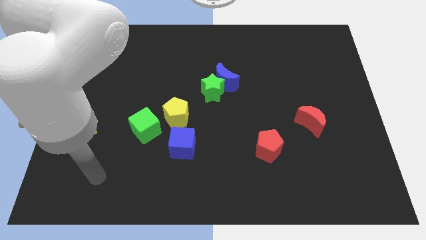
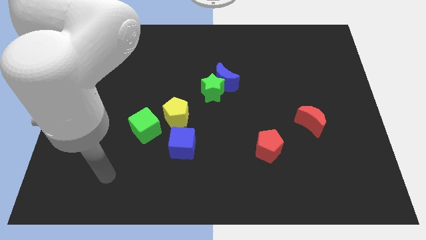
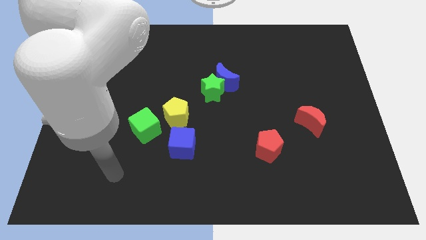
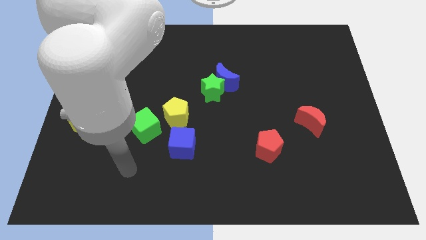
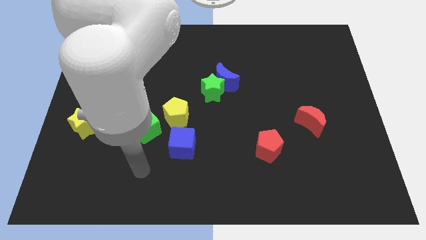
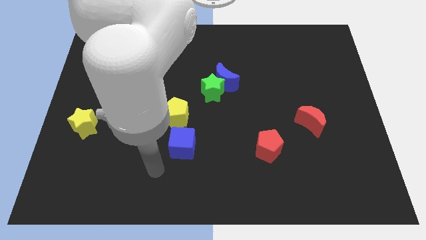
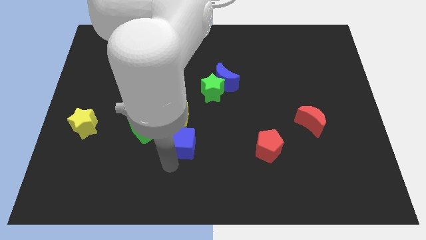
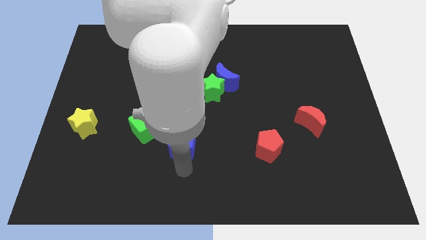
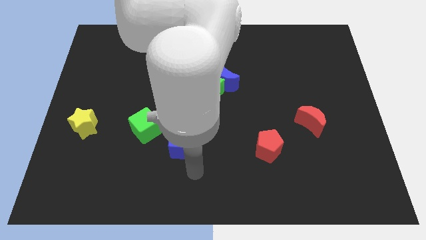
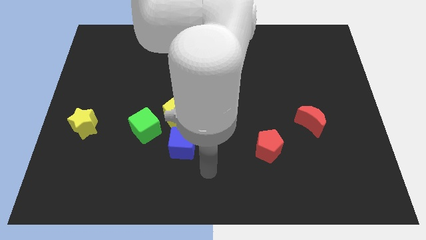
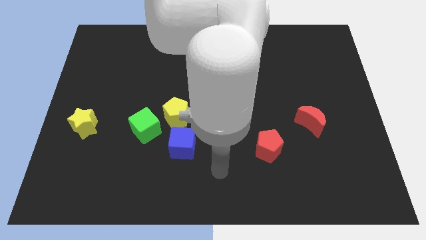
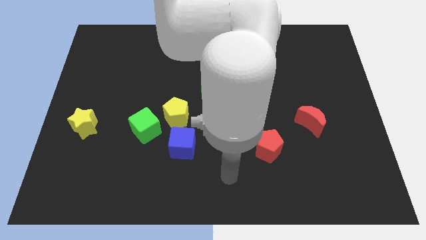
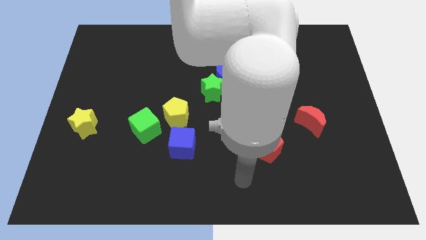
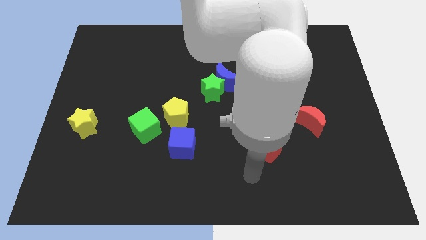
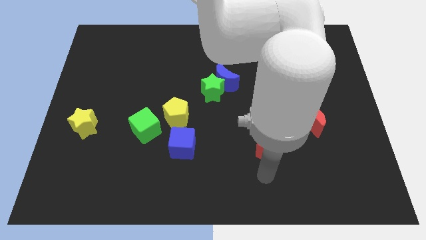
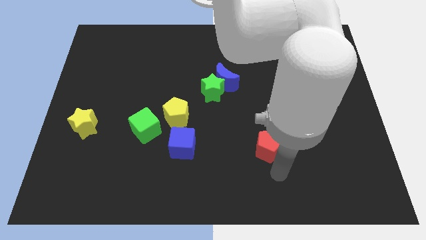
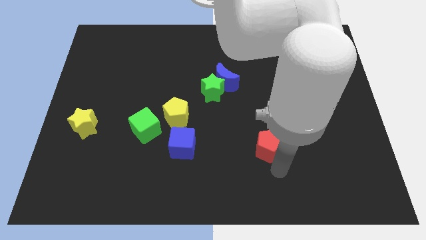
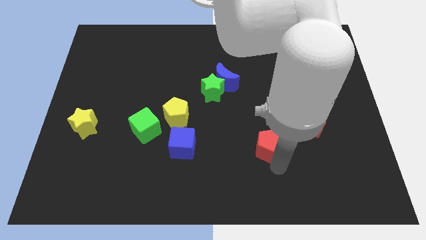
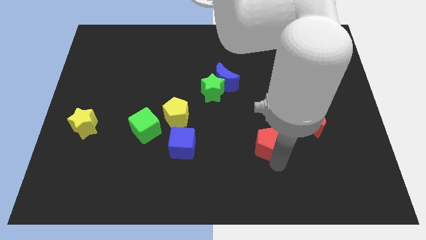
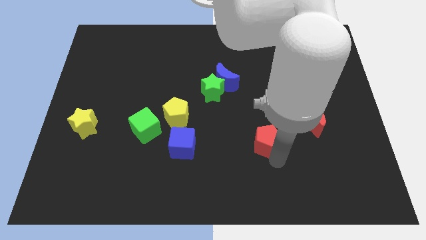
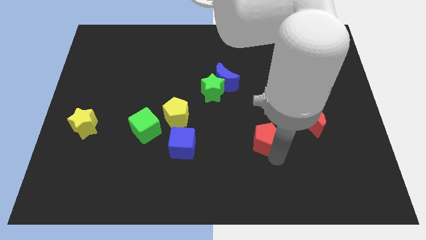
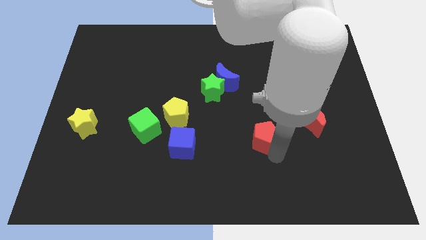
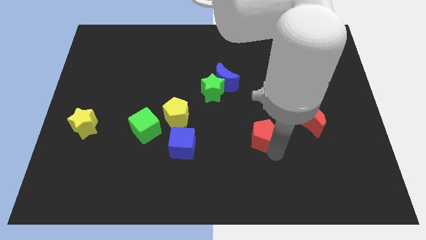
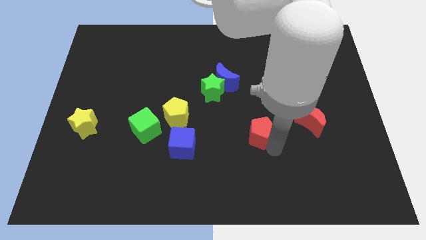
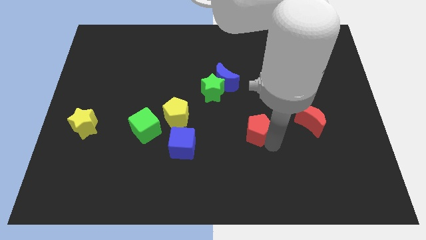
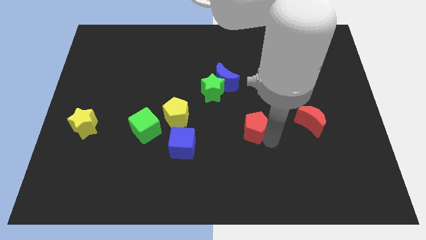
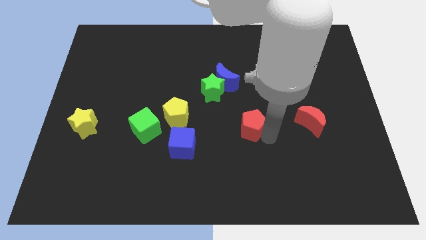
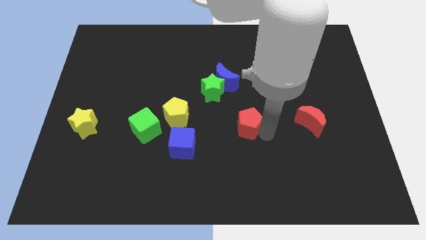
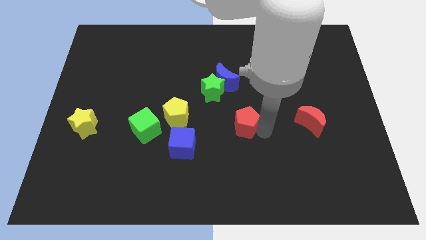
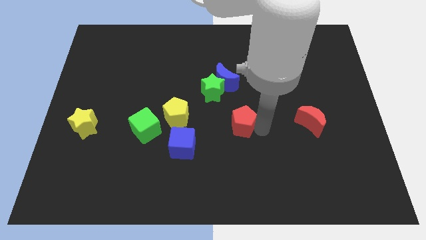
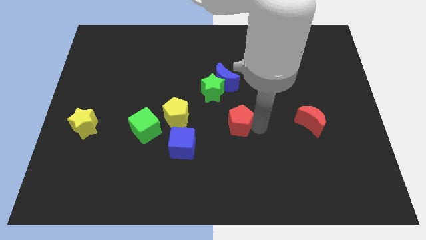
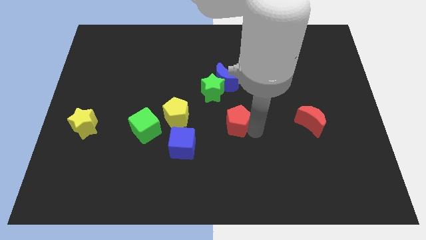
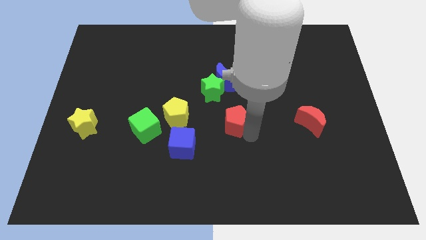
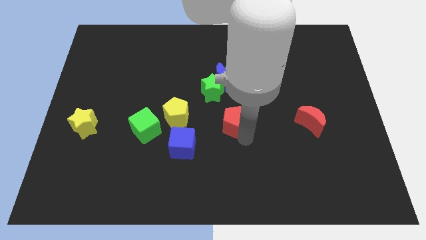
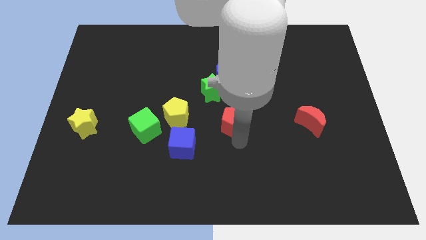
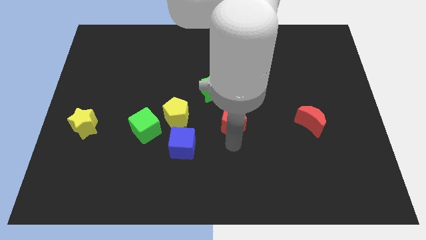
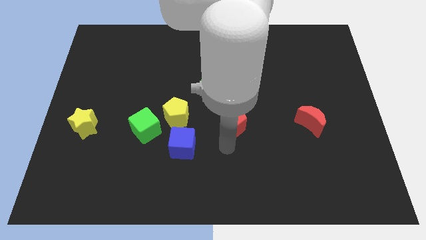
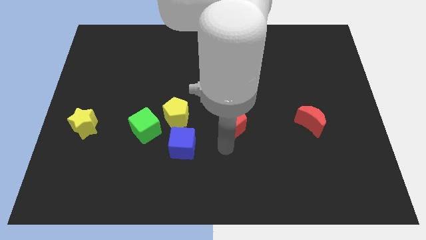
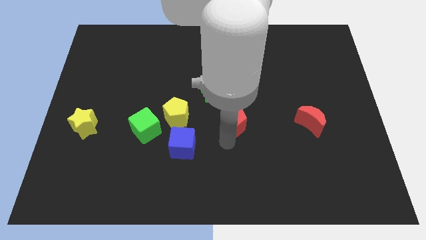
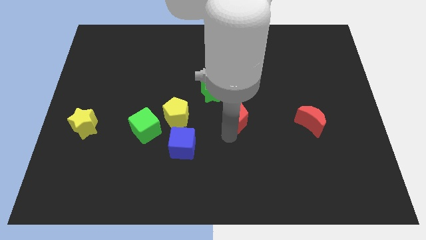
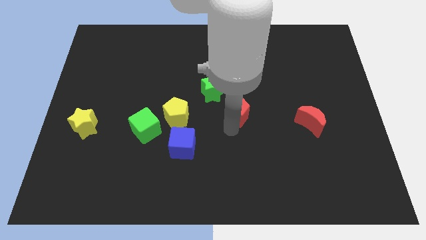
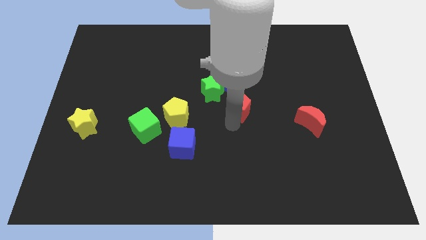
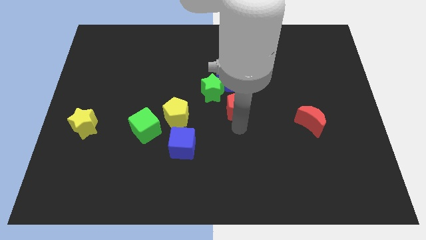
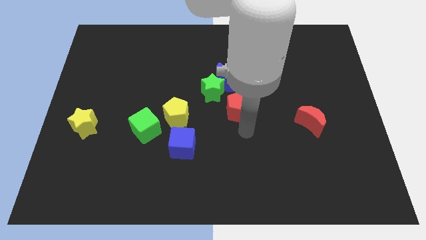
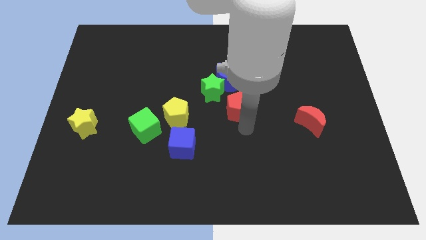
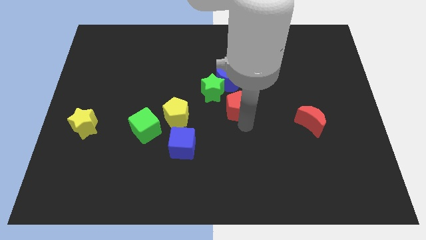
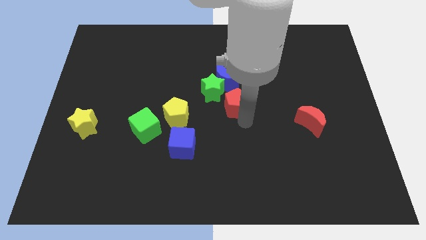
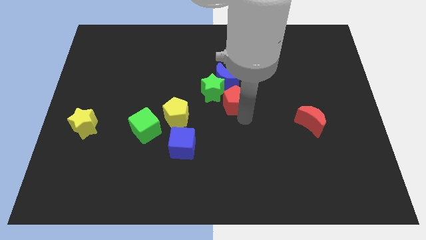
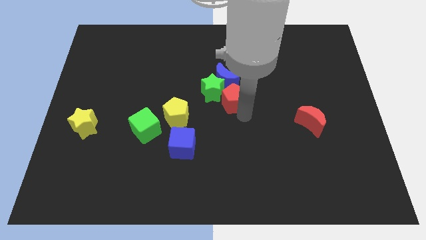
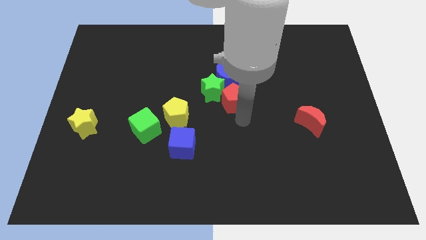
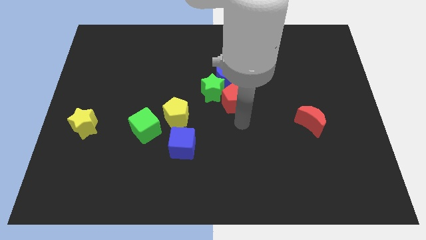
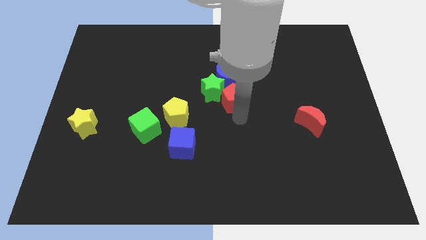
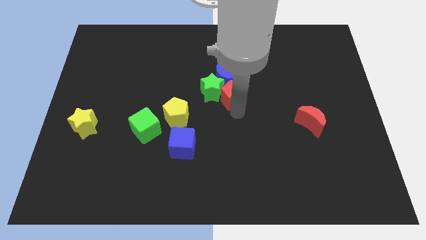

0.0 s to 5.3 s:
push the red pentagon towards the blue moon

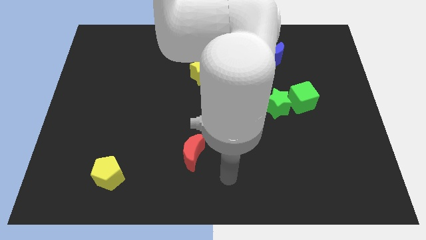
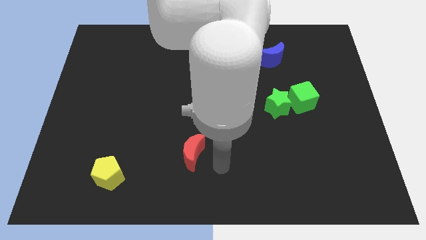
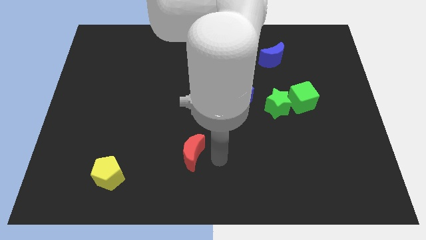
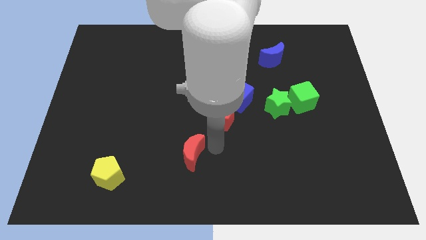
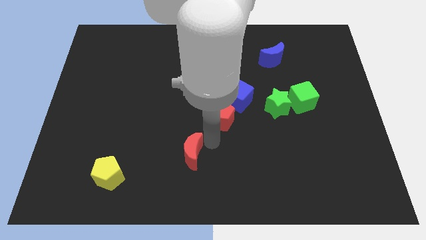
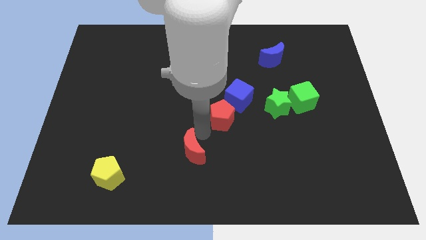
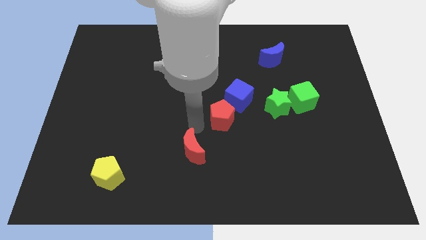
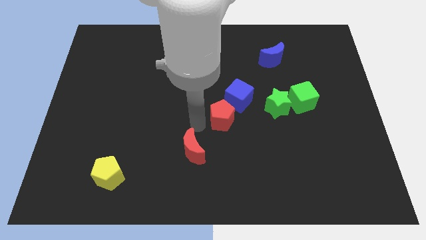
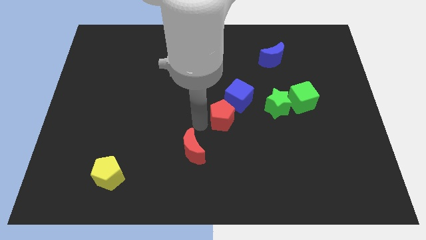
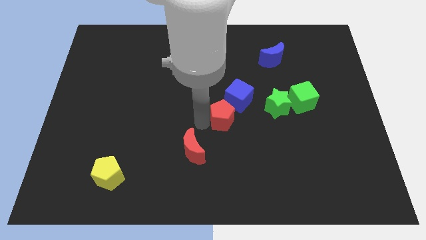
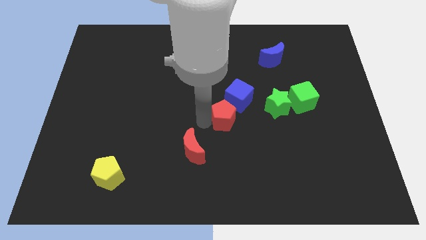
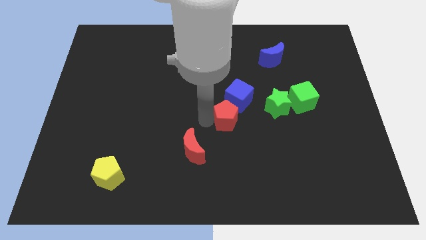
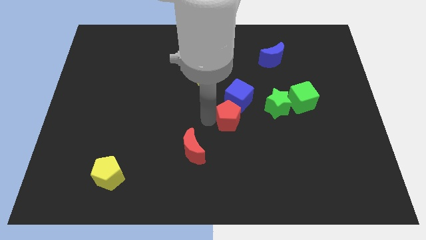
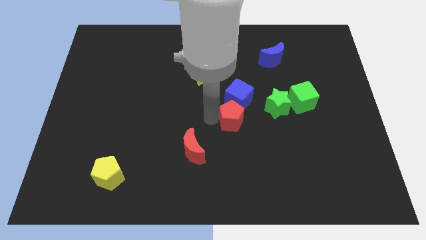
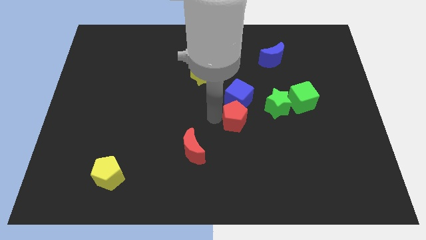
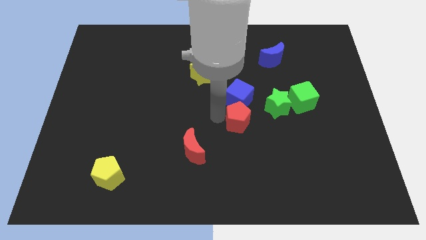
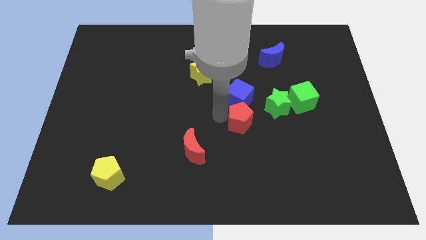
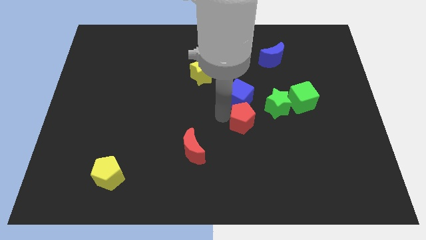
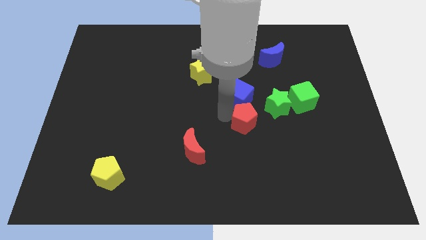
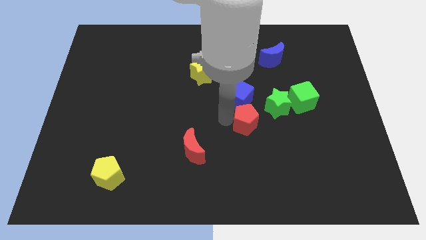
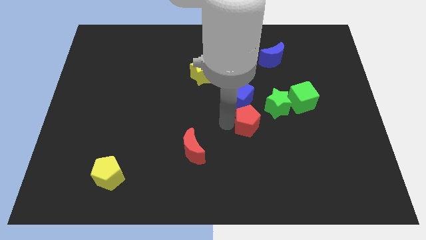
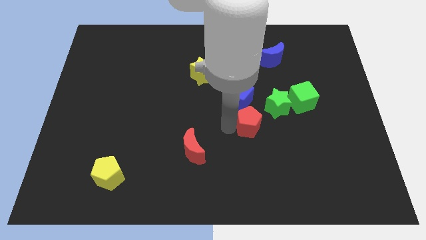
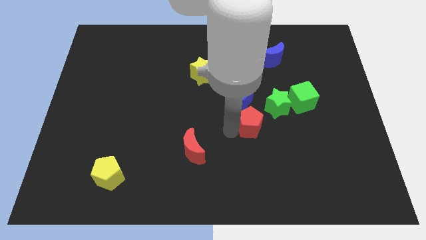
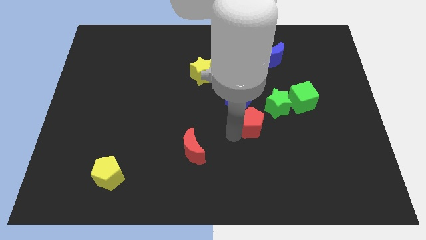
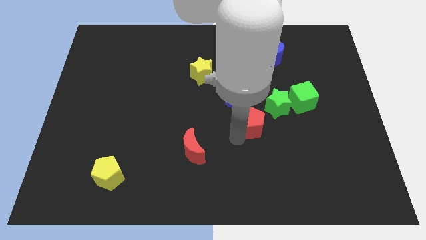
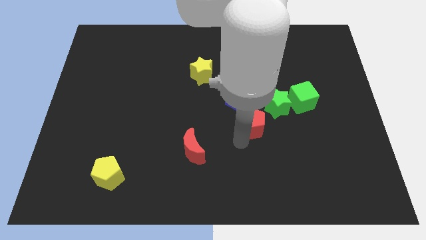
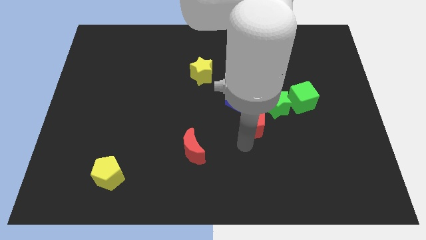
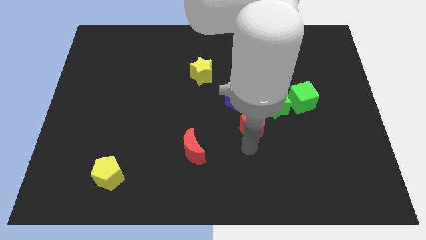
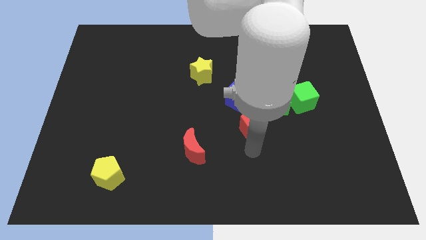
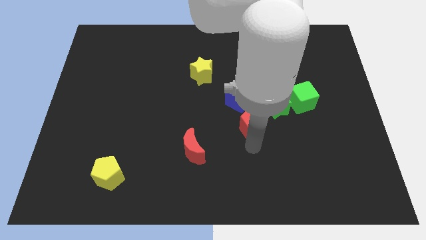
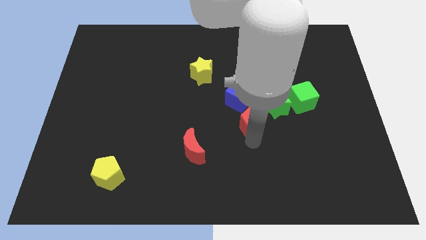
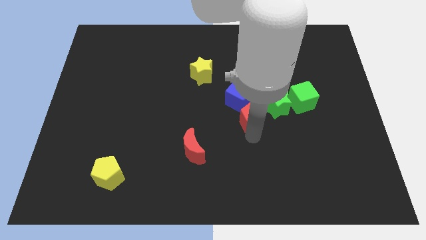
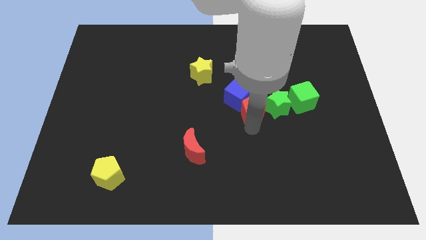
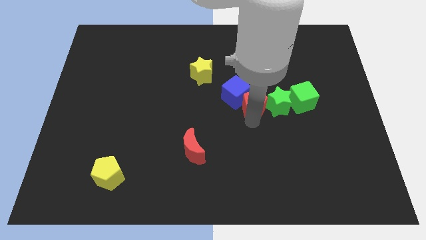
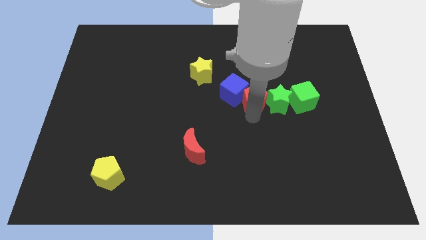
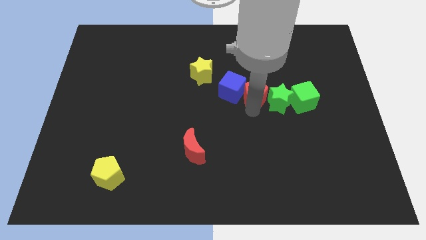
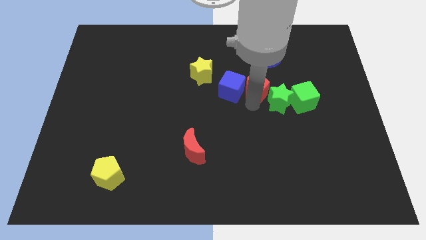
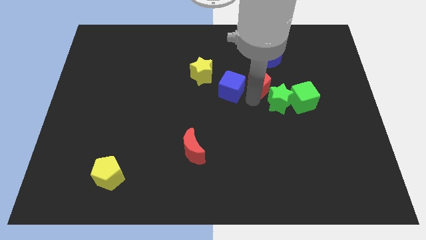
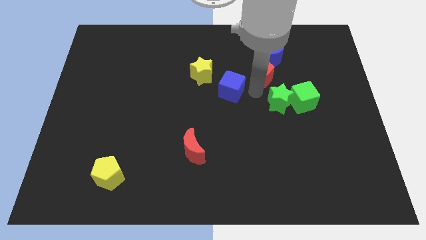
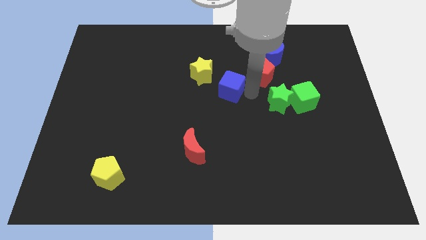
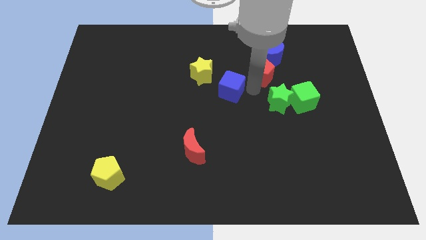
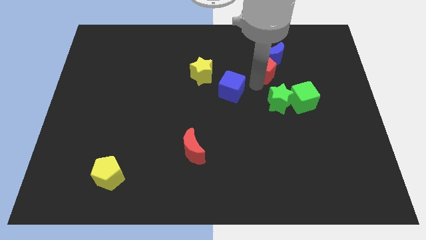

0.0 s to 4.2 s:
move the red pentagon close to the blue moon
